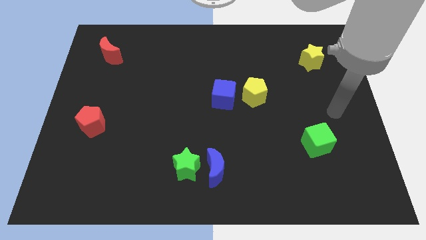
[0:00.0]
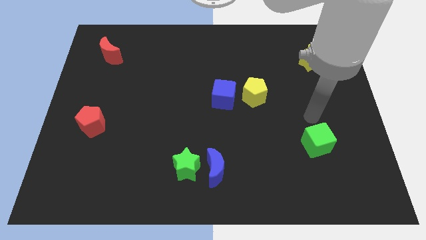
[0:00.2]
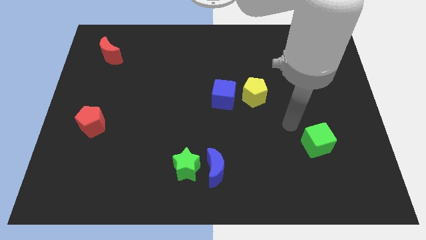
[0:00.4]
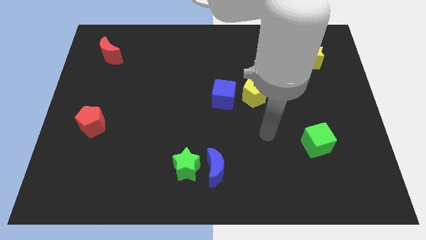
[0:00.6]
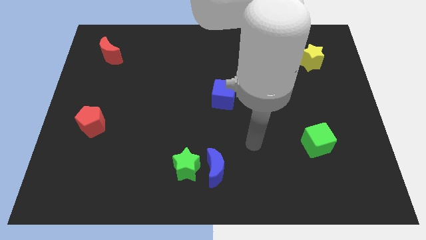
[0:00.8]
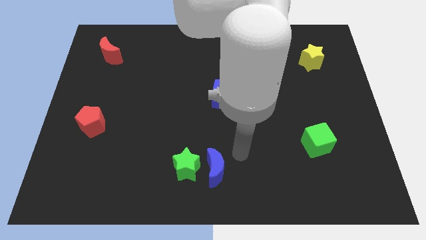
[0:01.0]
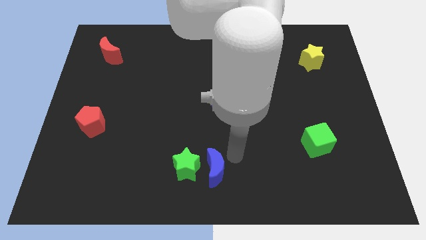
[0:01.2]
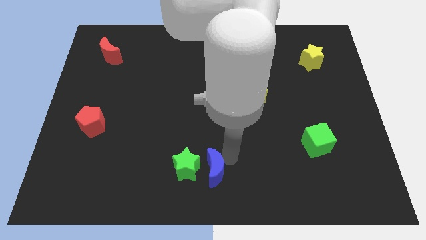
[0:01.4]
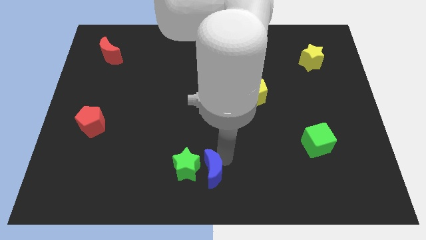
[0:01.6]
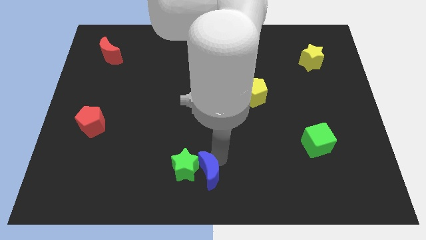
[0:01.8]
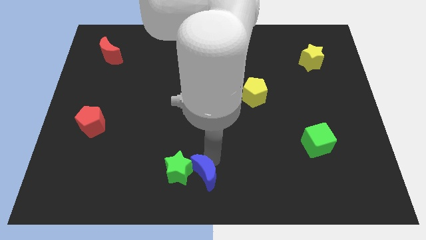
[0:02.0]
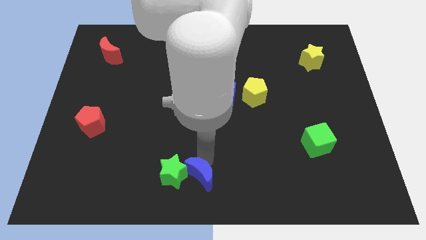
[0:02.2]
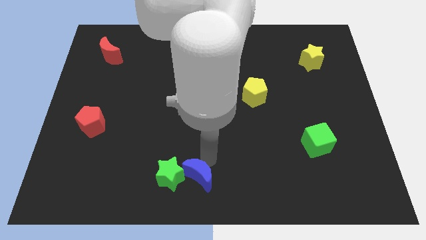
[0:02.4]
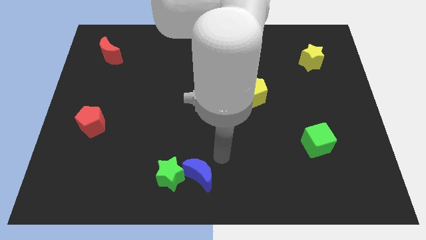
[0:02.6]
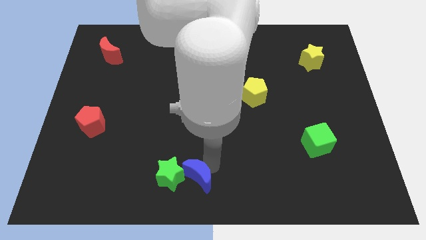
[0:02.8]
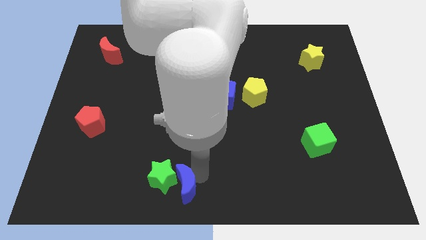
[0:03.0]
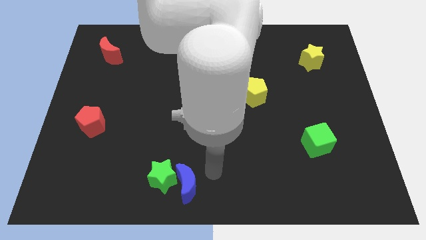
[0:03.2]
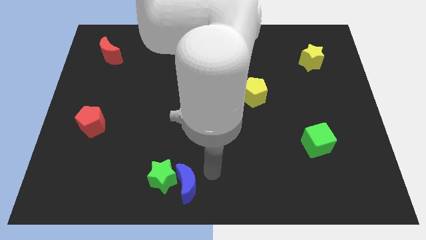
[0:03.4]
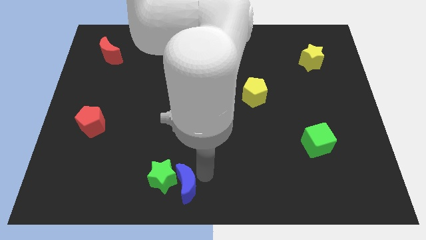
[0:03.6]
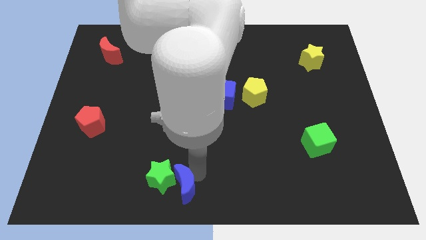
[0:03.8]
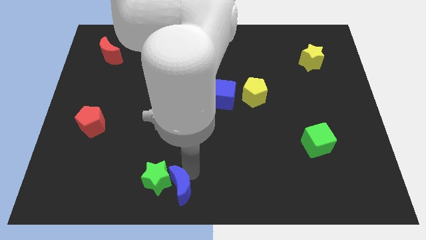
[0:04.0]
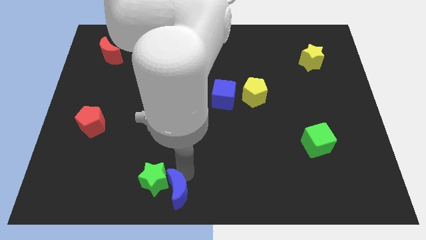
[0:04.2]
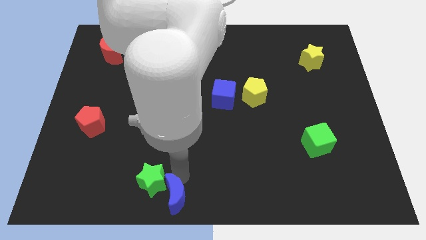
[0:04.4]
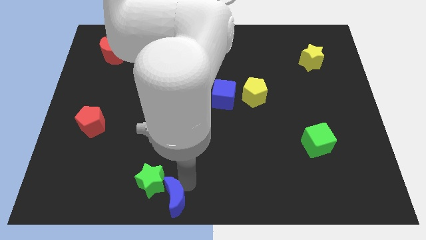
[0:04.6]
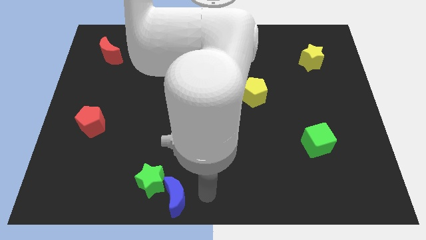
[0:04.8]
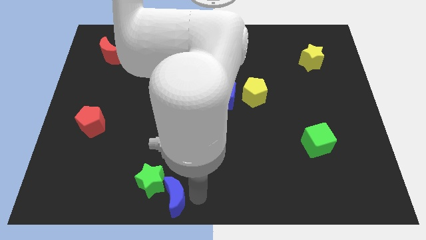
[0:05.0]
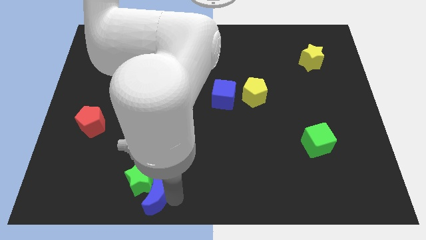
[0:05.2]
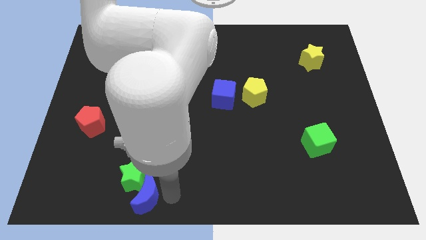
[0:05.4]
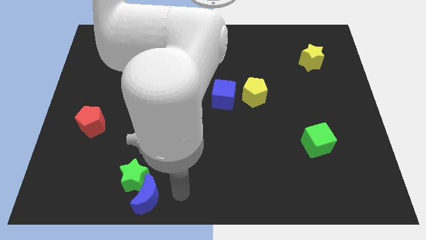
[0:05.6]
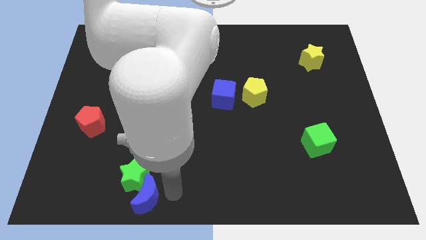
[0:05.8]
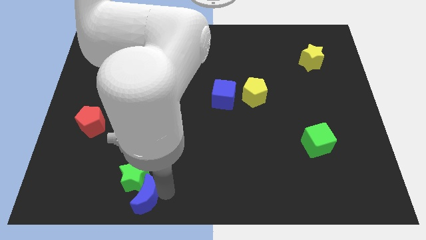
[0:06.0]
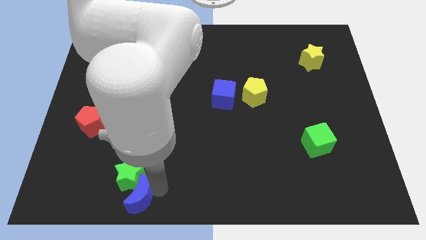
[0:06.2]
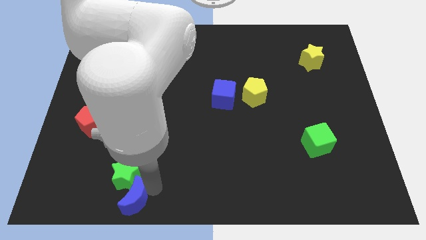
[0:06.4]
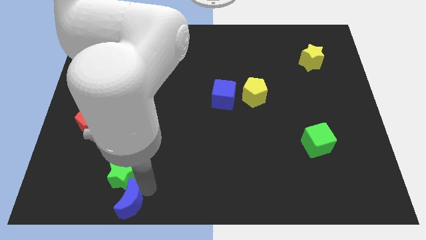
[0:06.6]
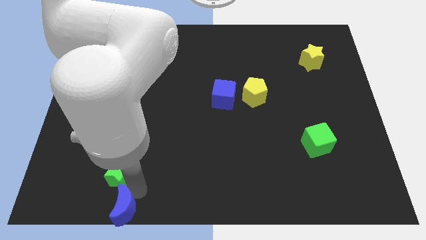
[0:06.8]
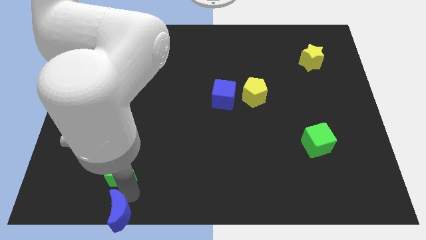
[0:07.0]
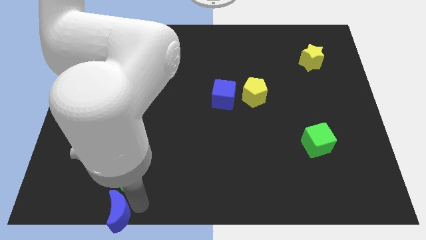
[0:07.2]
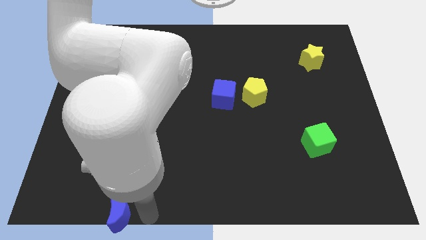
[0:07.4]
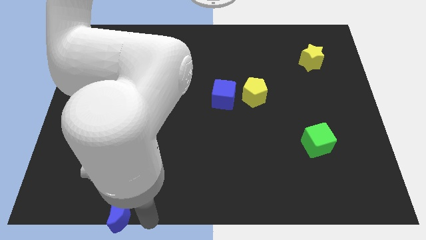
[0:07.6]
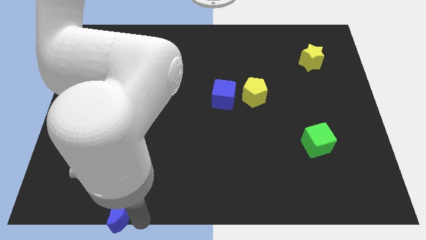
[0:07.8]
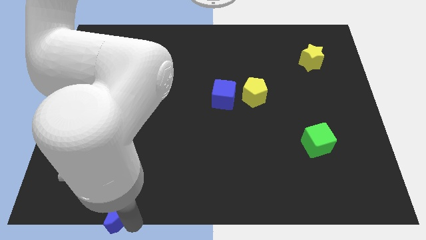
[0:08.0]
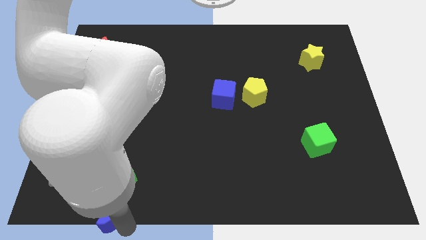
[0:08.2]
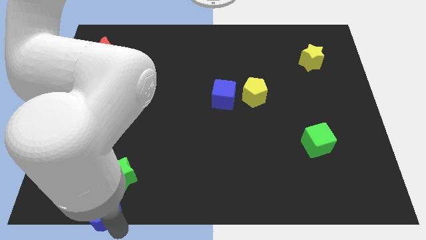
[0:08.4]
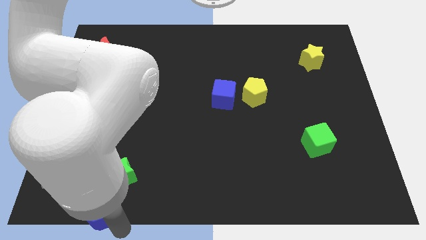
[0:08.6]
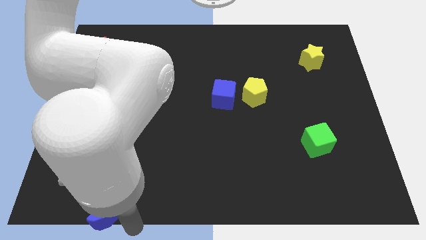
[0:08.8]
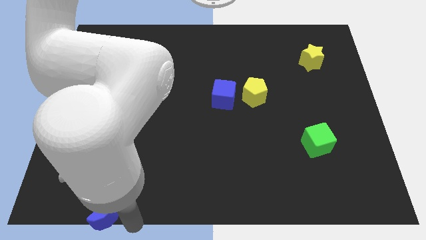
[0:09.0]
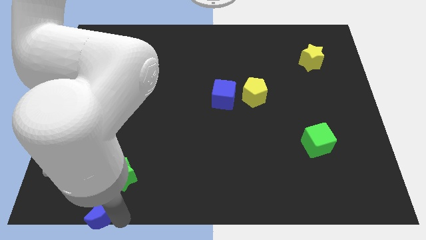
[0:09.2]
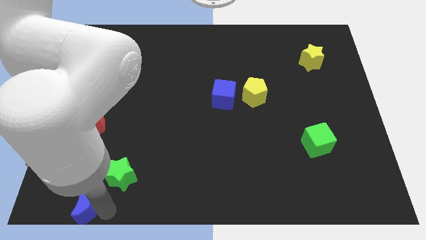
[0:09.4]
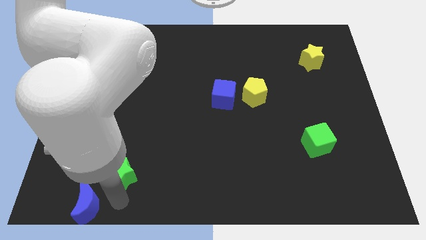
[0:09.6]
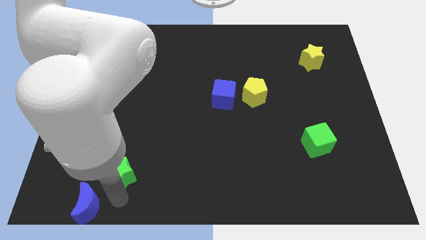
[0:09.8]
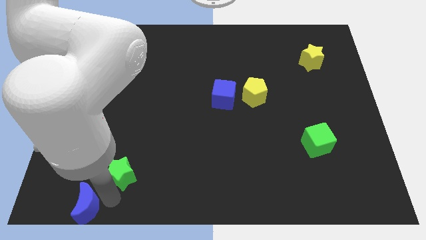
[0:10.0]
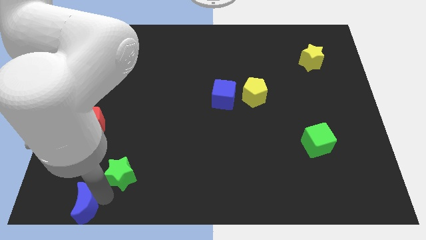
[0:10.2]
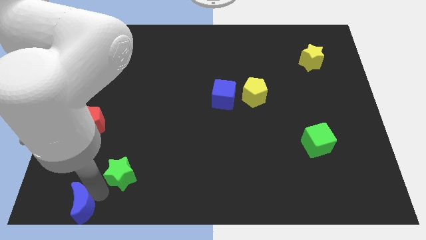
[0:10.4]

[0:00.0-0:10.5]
move the blue moon to the bottom left corner
